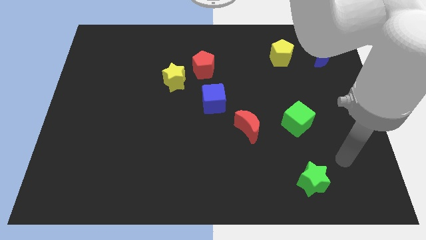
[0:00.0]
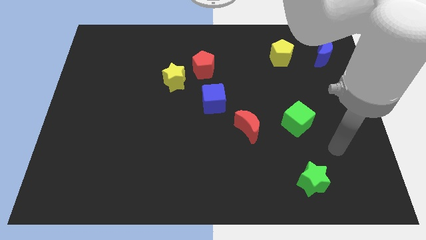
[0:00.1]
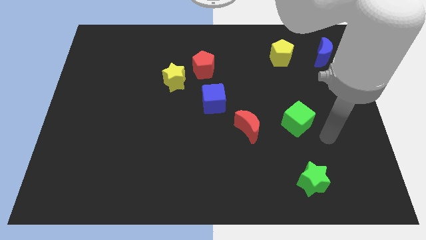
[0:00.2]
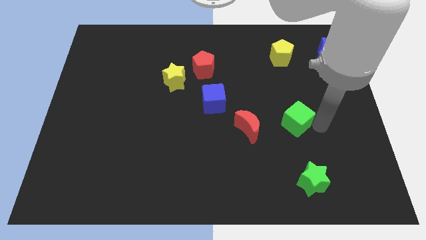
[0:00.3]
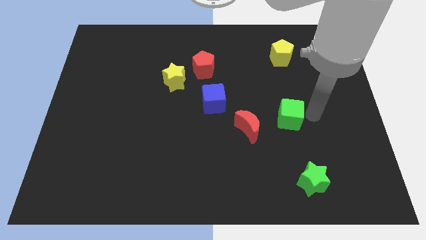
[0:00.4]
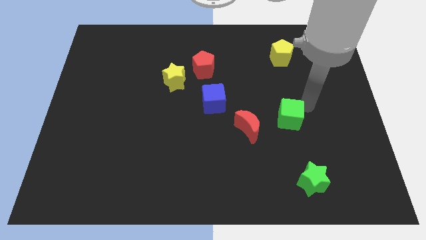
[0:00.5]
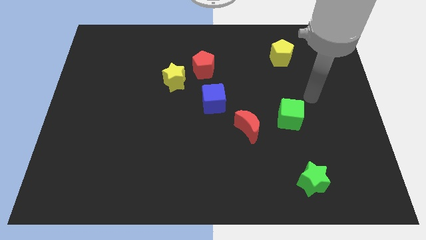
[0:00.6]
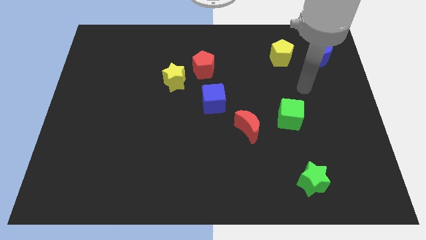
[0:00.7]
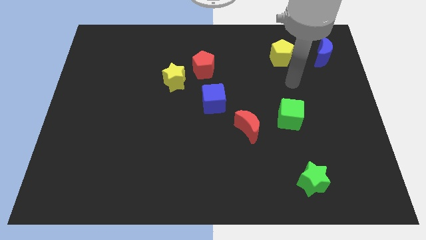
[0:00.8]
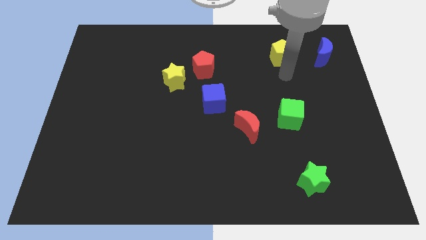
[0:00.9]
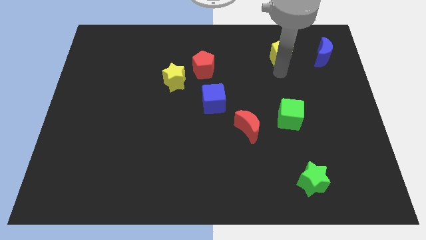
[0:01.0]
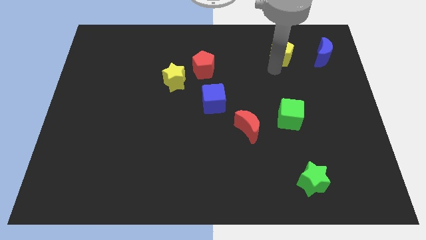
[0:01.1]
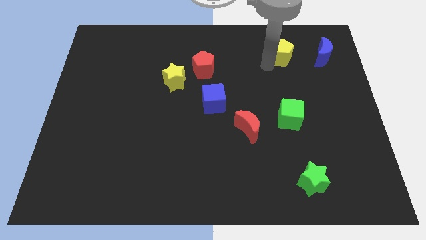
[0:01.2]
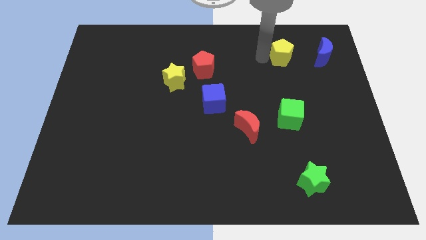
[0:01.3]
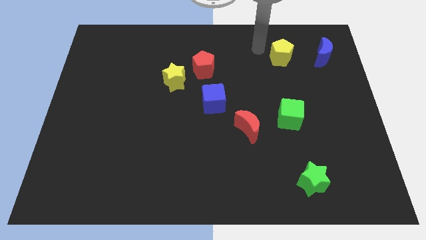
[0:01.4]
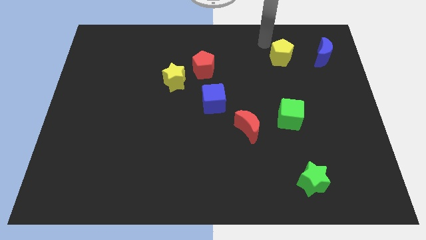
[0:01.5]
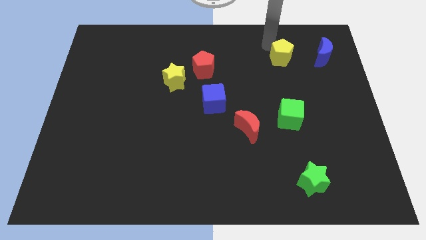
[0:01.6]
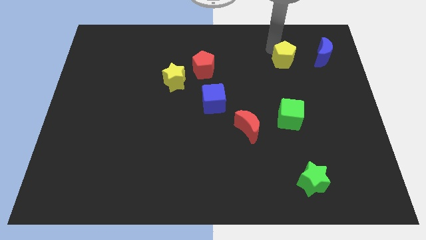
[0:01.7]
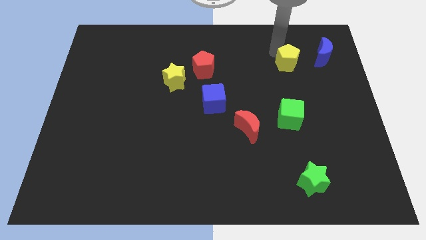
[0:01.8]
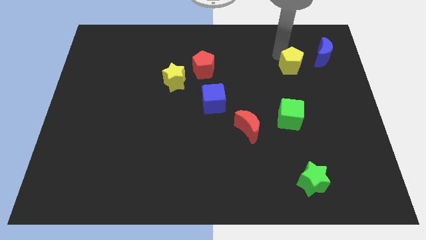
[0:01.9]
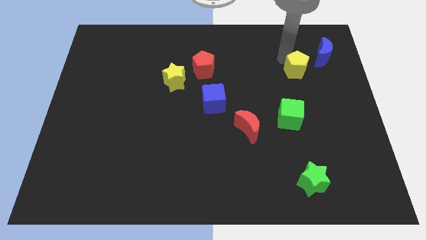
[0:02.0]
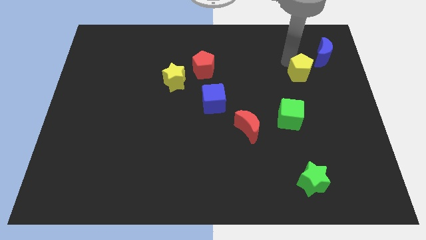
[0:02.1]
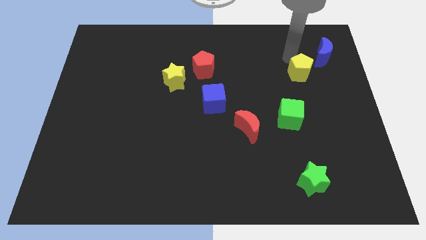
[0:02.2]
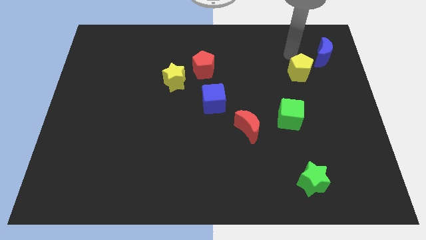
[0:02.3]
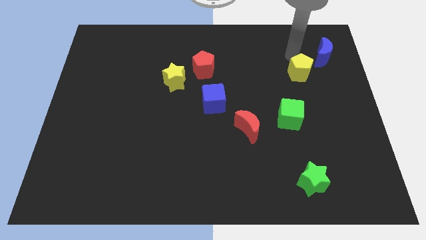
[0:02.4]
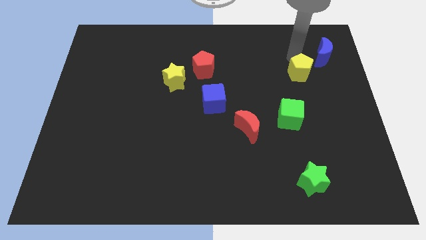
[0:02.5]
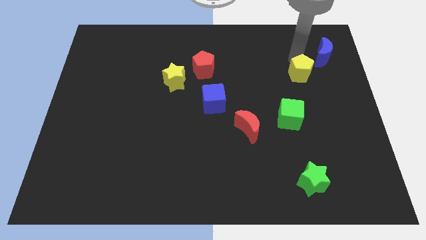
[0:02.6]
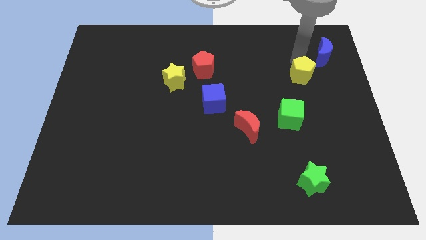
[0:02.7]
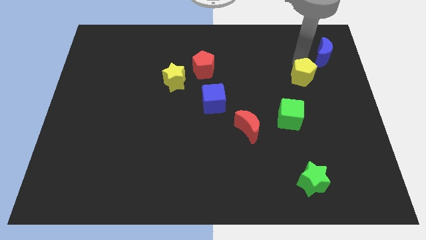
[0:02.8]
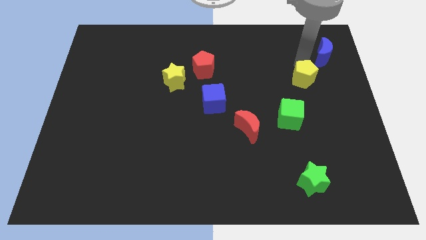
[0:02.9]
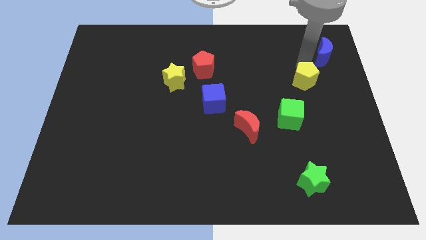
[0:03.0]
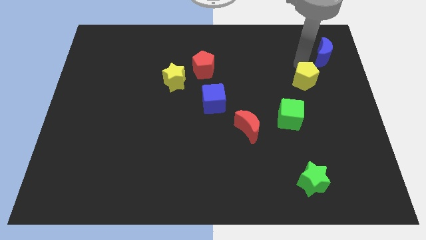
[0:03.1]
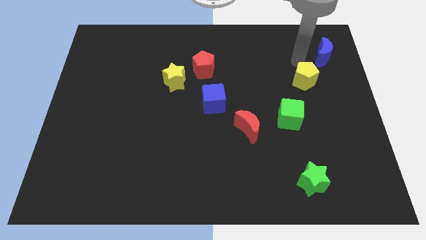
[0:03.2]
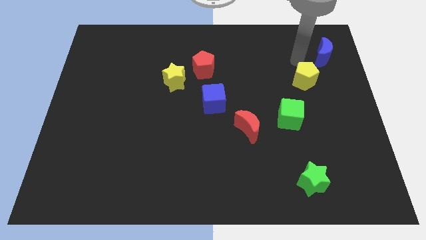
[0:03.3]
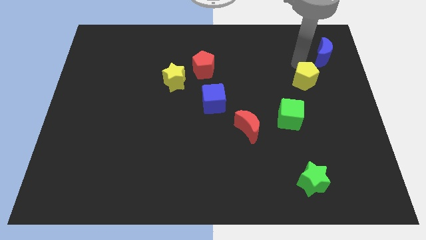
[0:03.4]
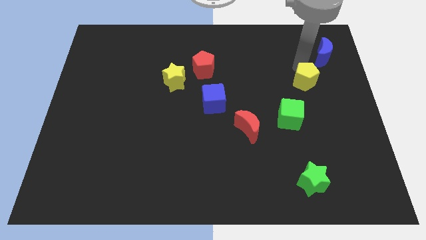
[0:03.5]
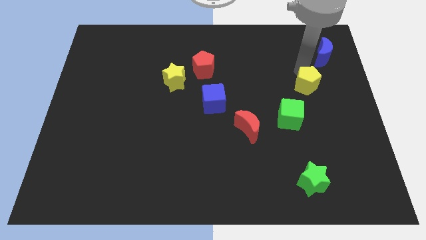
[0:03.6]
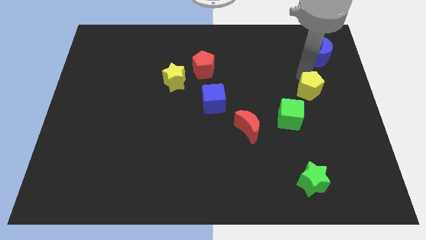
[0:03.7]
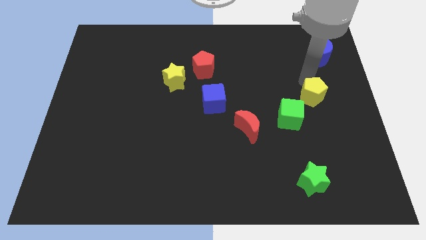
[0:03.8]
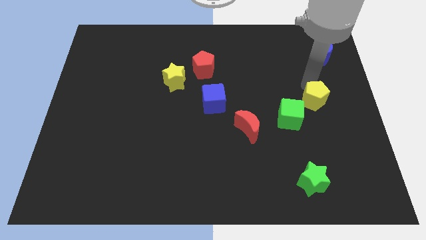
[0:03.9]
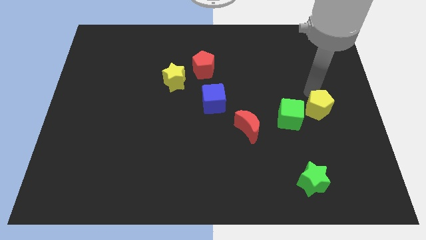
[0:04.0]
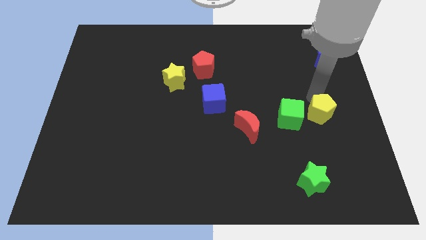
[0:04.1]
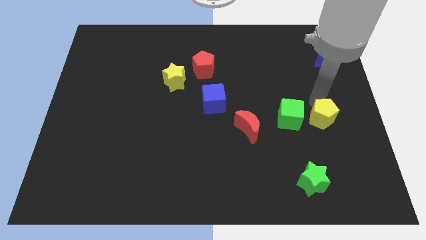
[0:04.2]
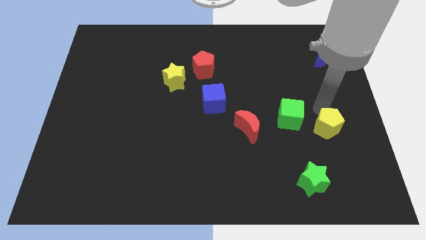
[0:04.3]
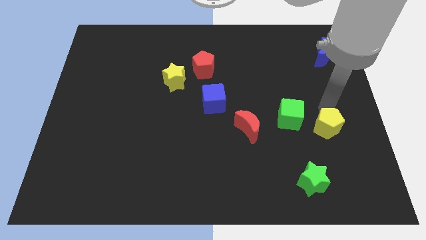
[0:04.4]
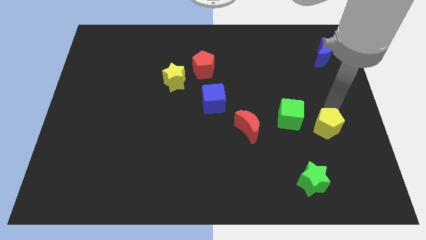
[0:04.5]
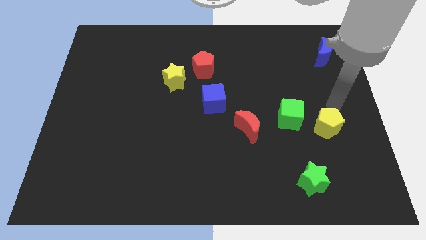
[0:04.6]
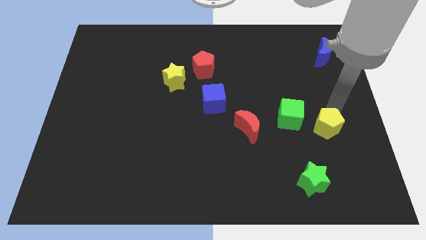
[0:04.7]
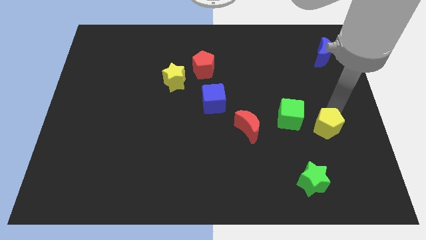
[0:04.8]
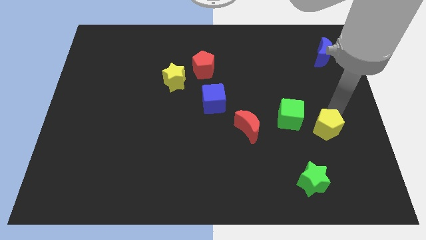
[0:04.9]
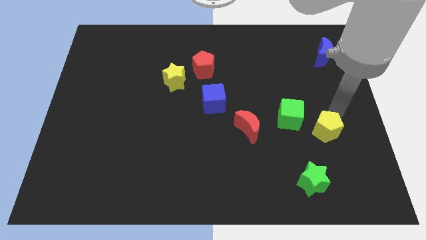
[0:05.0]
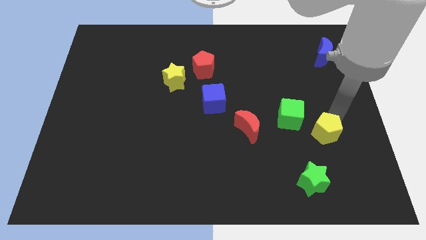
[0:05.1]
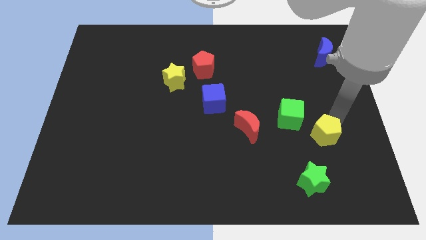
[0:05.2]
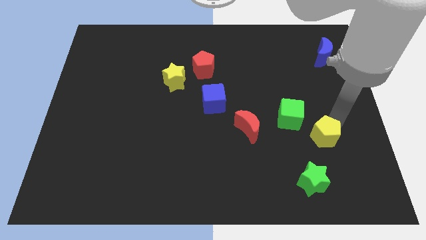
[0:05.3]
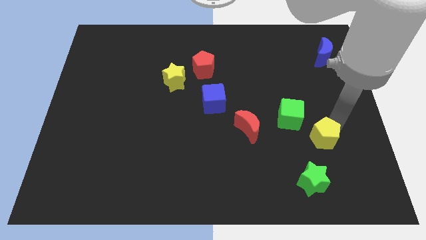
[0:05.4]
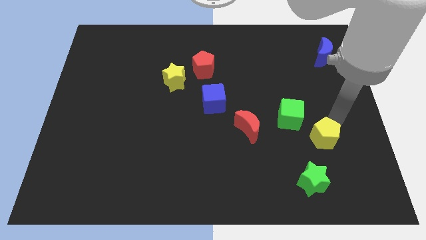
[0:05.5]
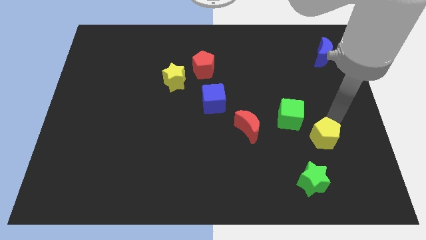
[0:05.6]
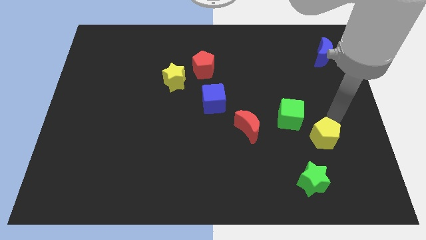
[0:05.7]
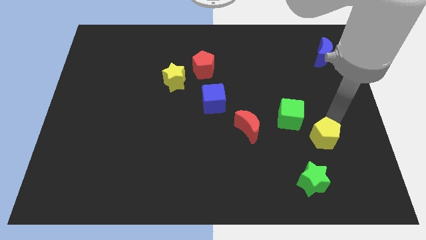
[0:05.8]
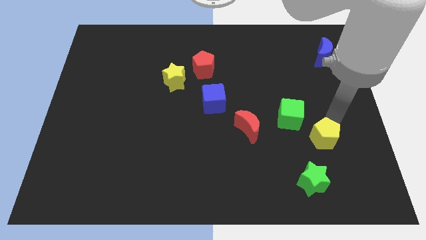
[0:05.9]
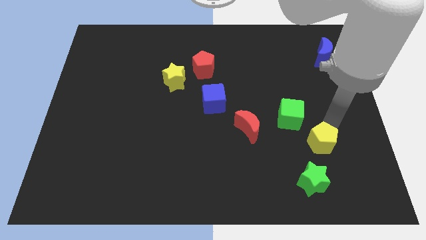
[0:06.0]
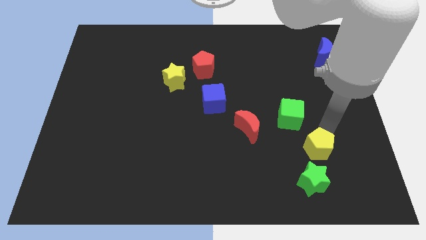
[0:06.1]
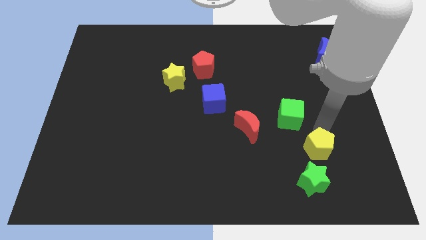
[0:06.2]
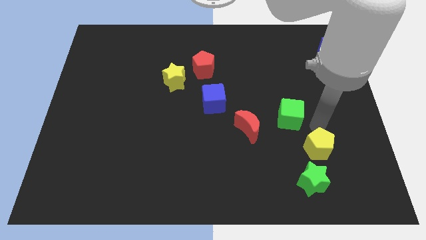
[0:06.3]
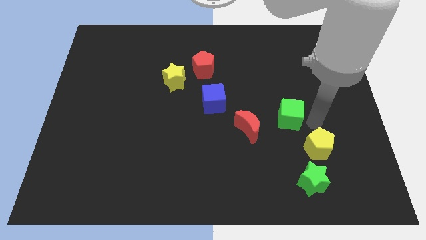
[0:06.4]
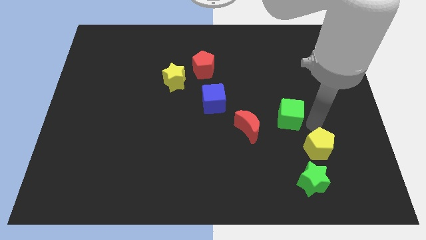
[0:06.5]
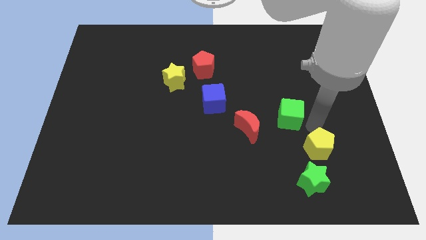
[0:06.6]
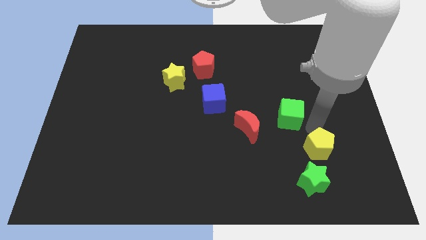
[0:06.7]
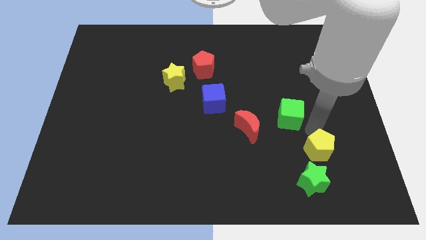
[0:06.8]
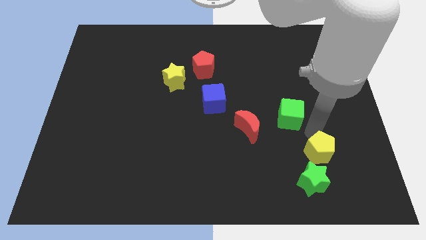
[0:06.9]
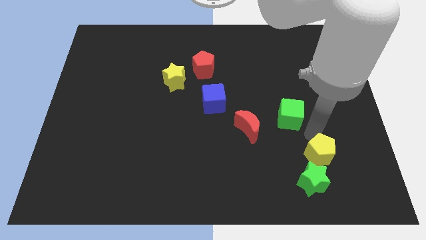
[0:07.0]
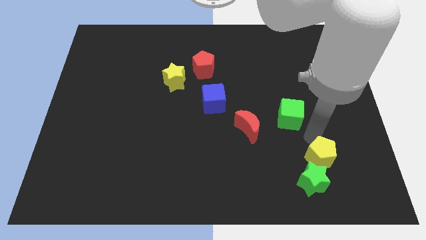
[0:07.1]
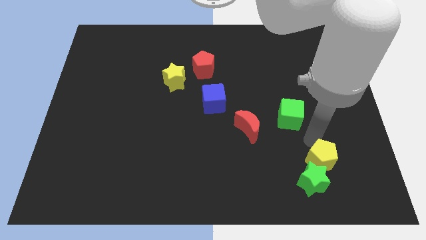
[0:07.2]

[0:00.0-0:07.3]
slide the yellow pentagon to the green star
